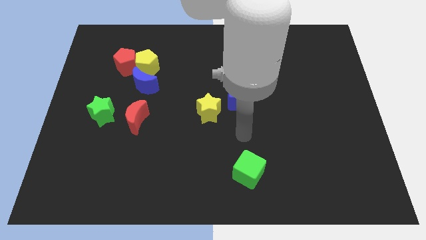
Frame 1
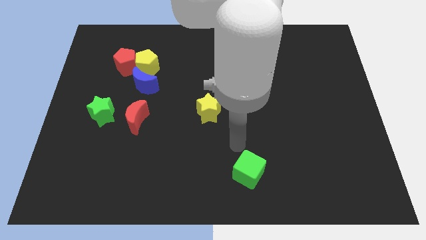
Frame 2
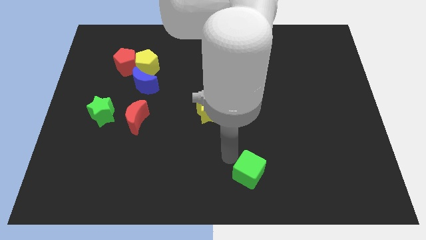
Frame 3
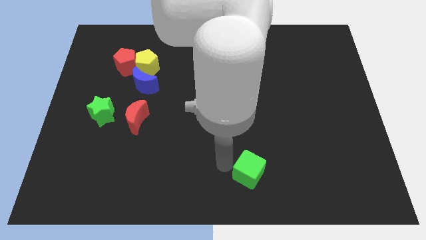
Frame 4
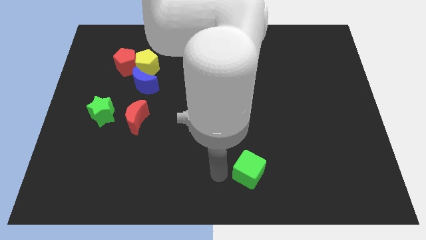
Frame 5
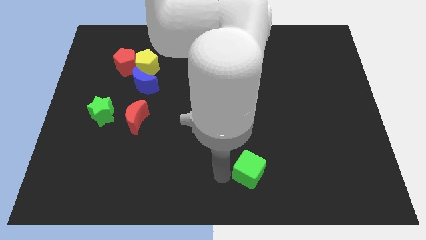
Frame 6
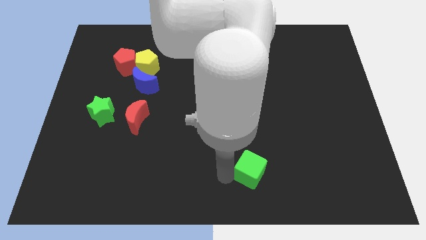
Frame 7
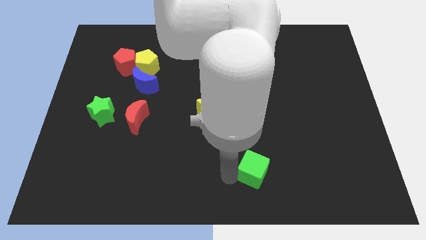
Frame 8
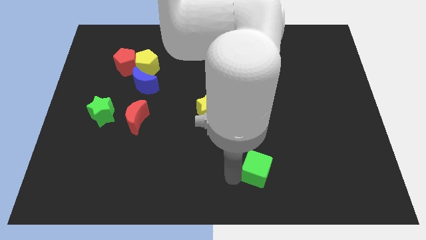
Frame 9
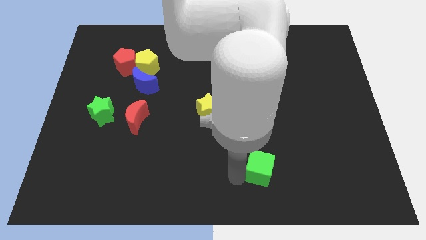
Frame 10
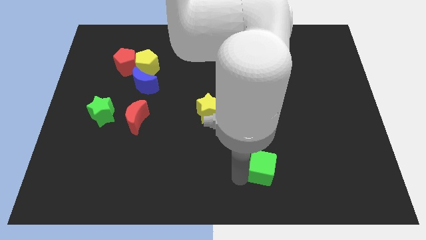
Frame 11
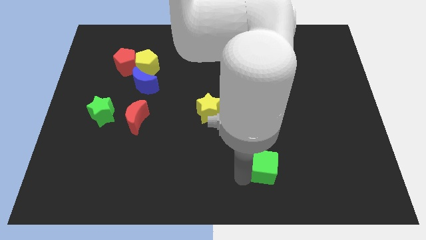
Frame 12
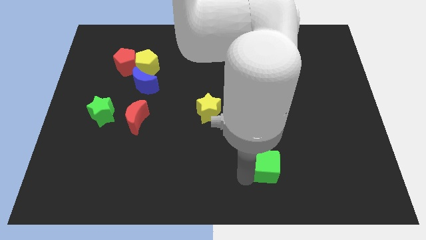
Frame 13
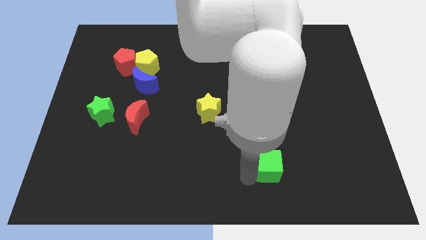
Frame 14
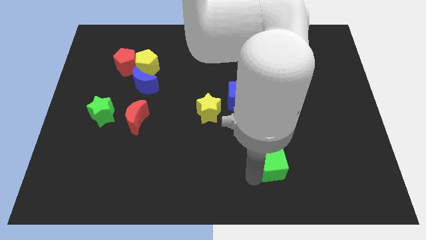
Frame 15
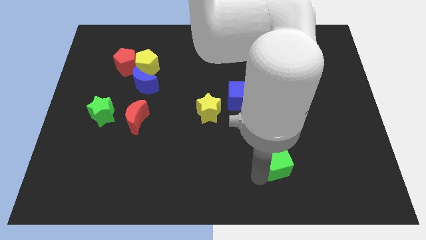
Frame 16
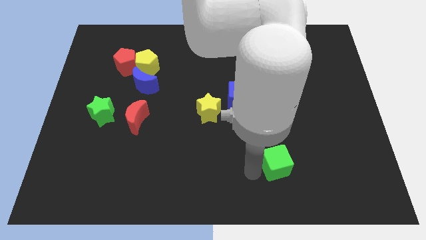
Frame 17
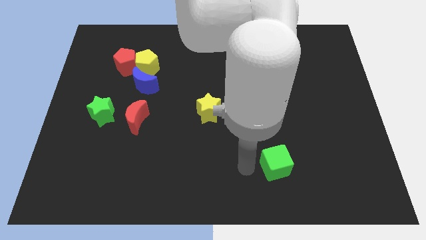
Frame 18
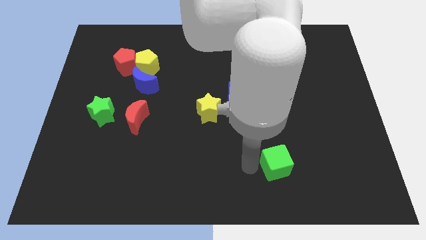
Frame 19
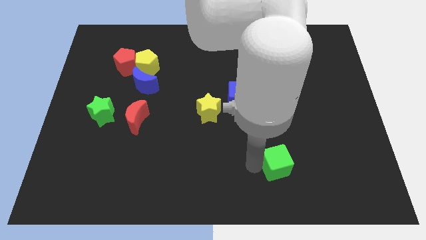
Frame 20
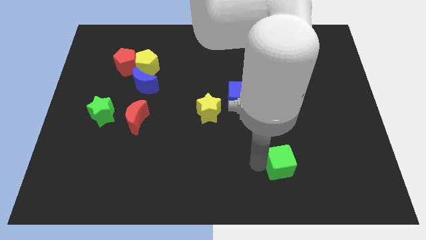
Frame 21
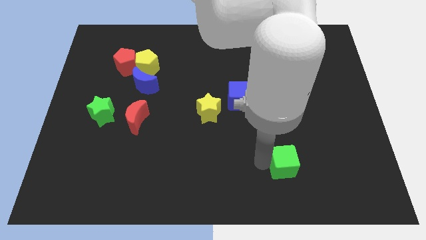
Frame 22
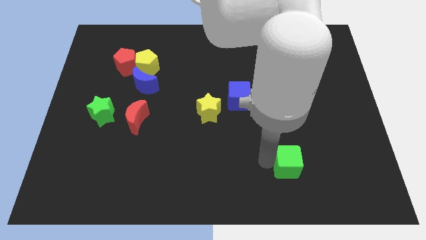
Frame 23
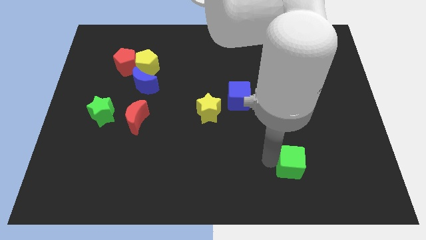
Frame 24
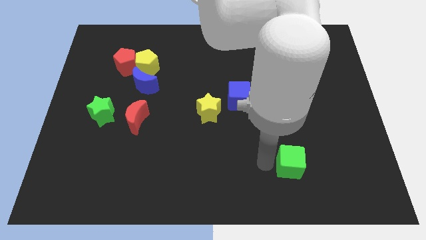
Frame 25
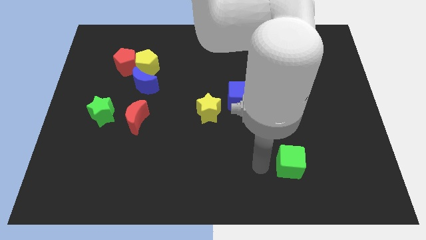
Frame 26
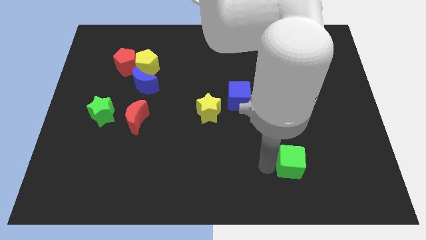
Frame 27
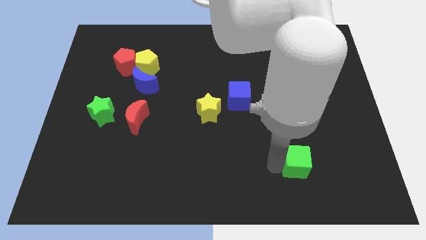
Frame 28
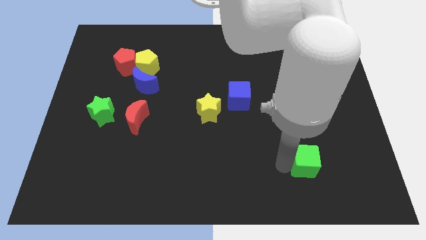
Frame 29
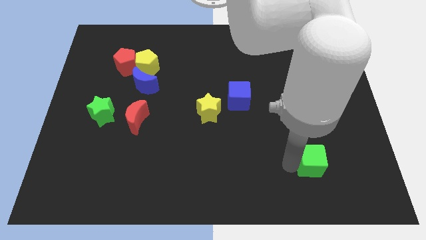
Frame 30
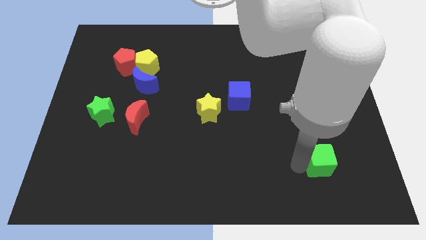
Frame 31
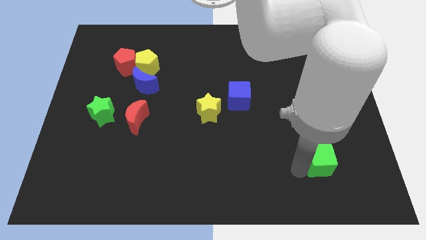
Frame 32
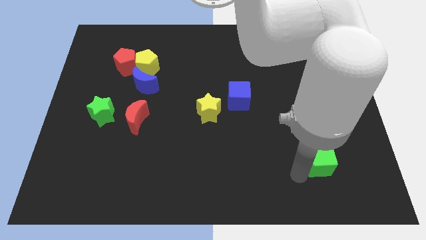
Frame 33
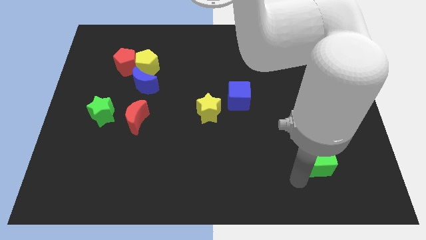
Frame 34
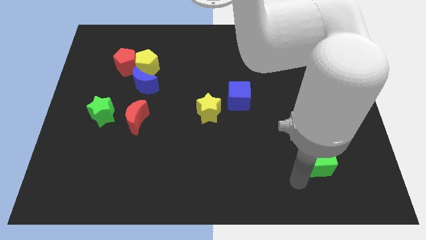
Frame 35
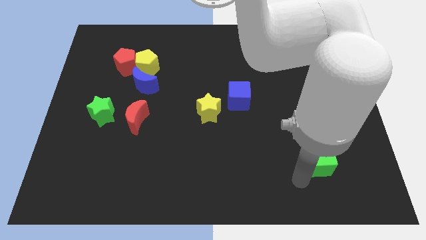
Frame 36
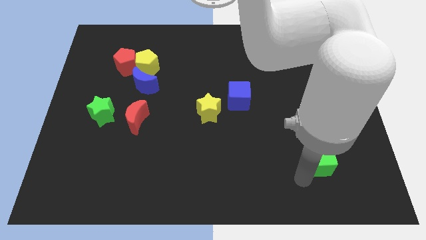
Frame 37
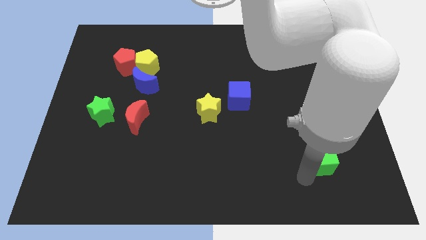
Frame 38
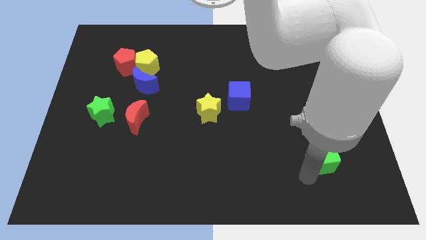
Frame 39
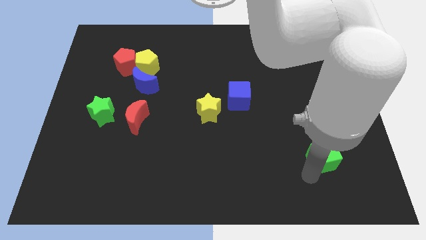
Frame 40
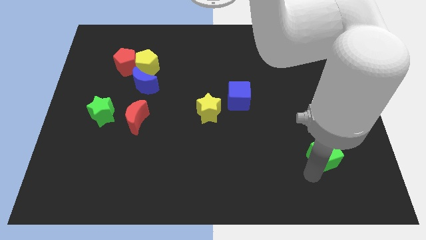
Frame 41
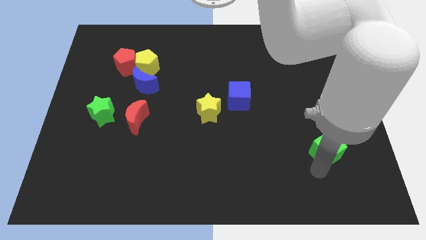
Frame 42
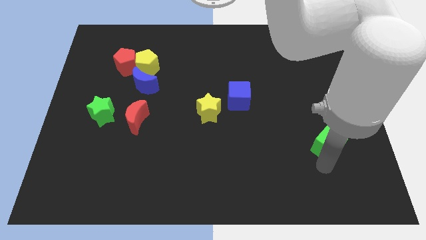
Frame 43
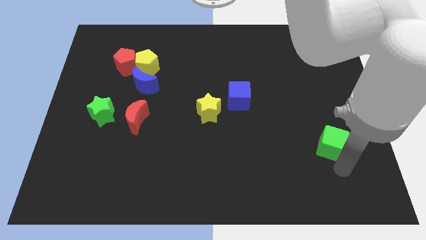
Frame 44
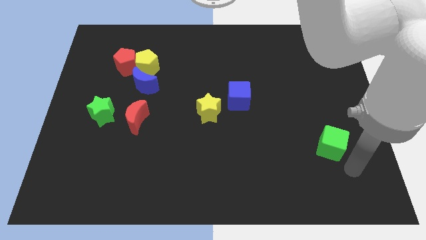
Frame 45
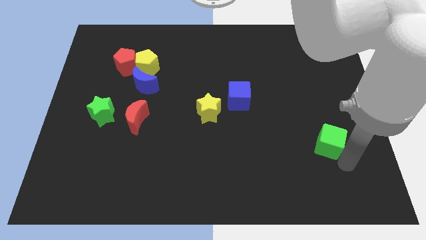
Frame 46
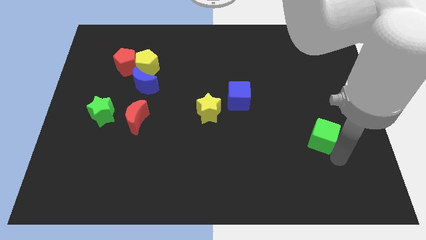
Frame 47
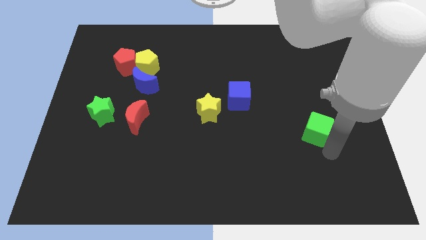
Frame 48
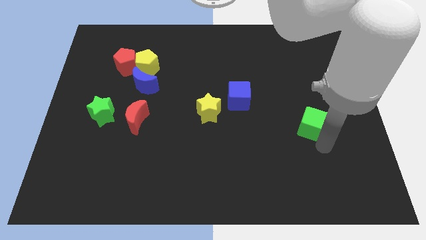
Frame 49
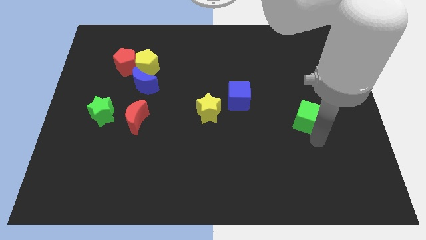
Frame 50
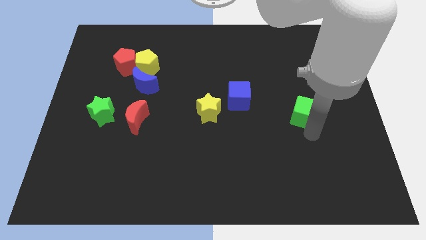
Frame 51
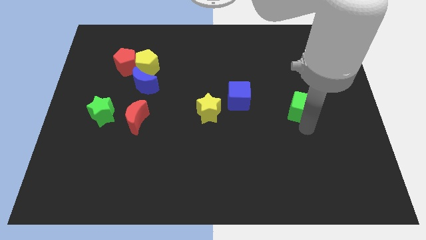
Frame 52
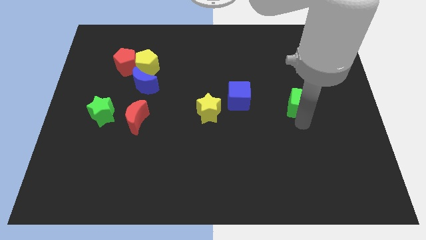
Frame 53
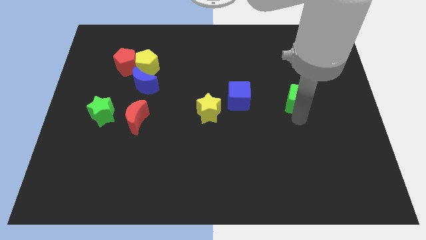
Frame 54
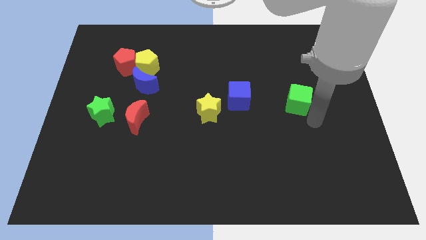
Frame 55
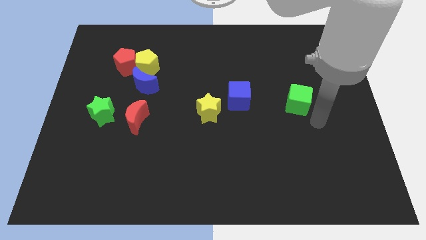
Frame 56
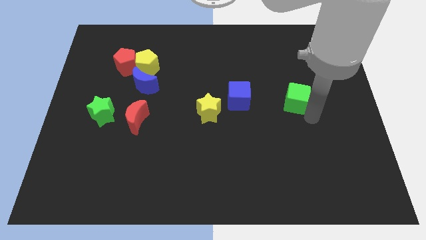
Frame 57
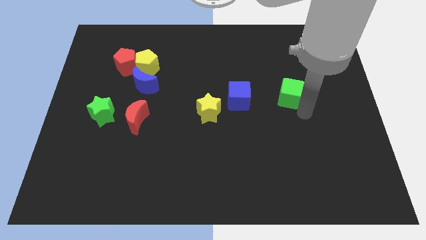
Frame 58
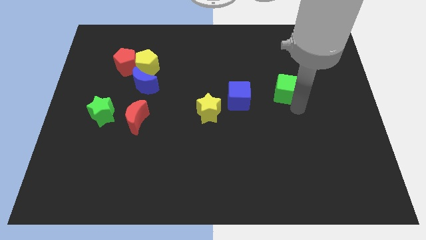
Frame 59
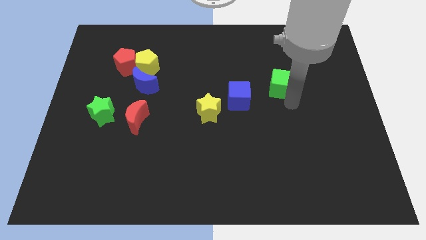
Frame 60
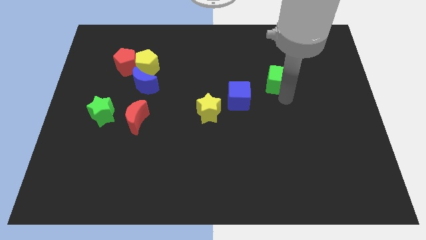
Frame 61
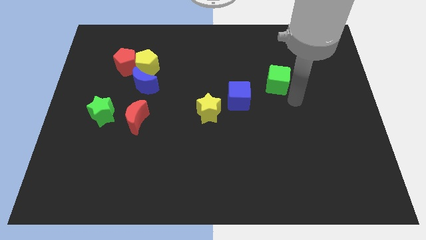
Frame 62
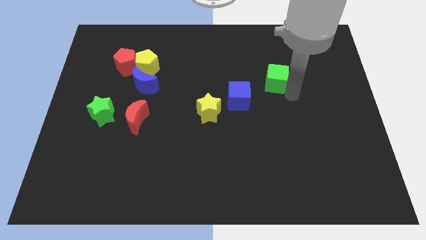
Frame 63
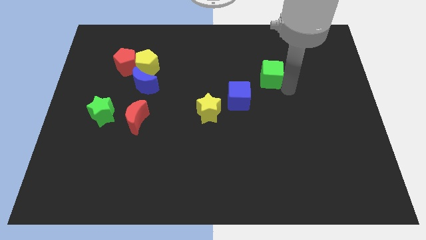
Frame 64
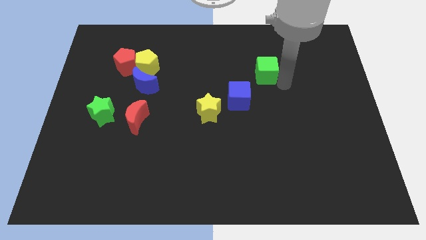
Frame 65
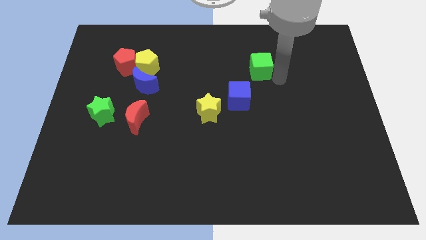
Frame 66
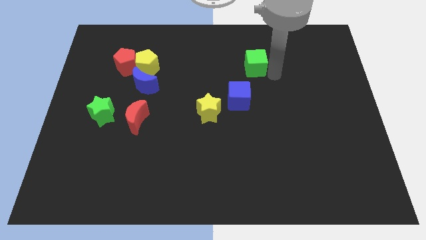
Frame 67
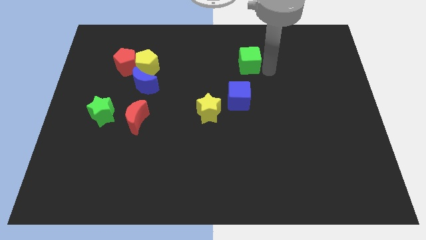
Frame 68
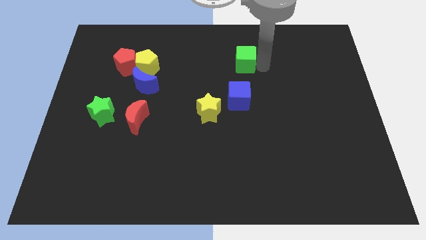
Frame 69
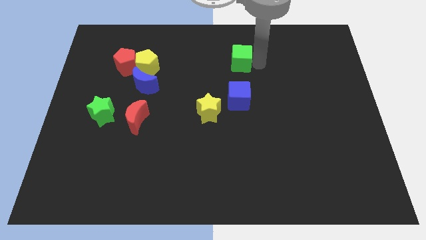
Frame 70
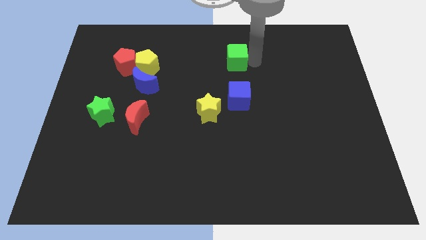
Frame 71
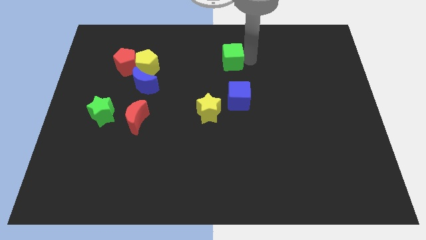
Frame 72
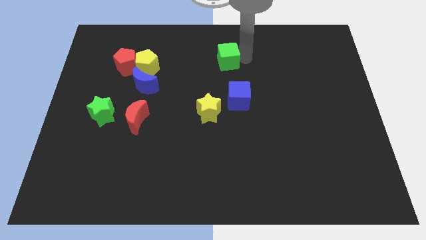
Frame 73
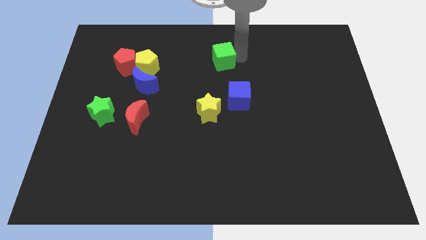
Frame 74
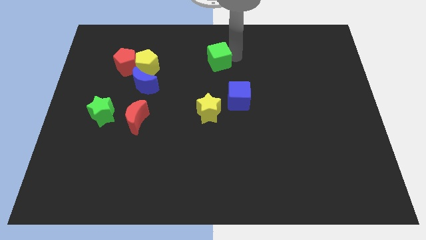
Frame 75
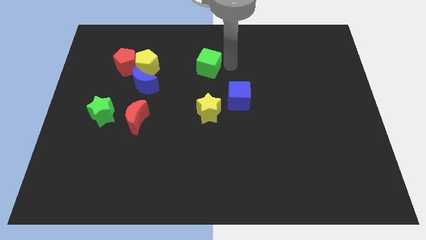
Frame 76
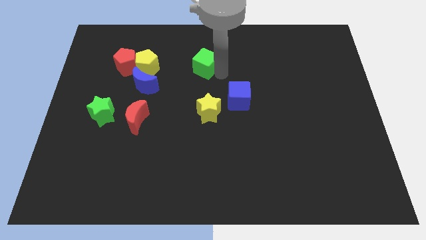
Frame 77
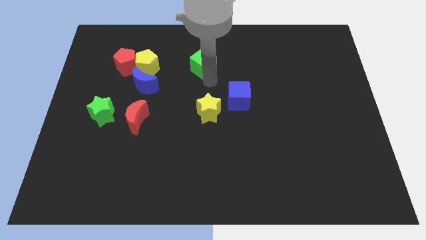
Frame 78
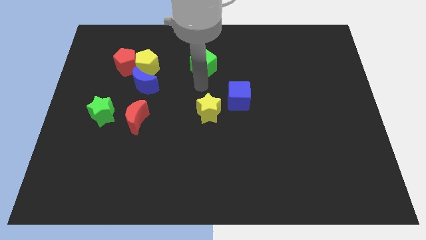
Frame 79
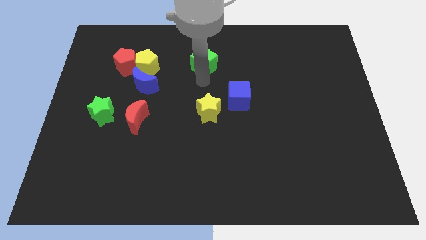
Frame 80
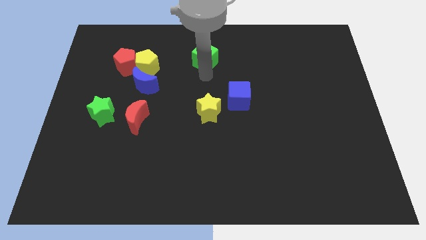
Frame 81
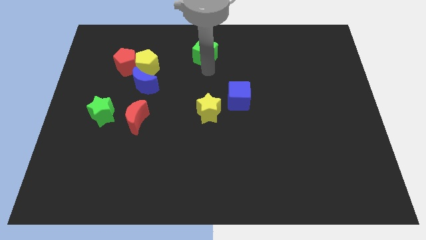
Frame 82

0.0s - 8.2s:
move the green cube to the top side
